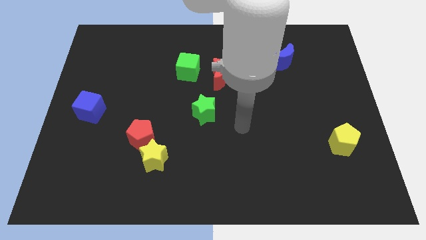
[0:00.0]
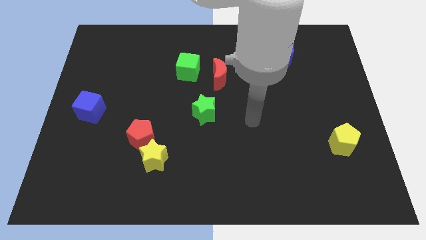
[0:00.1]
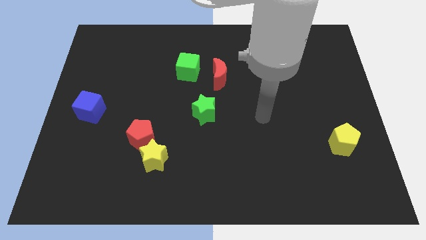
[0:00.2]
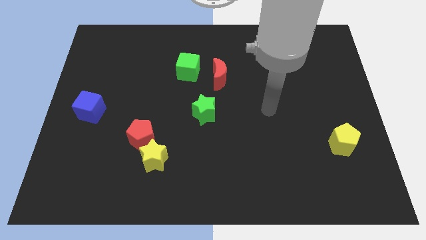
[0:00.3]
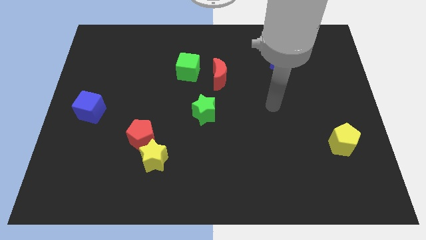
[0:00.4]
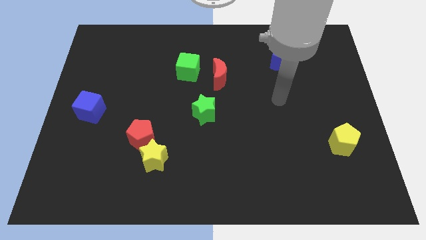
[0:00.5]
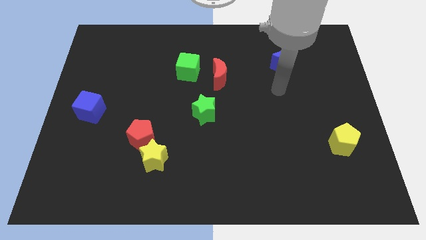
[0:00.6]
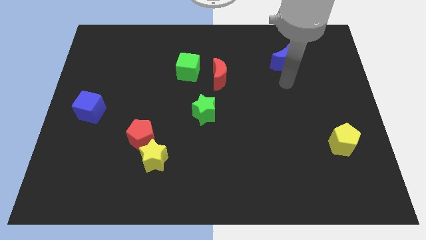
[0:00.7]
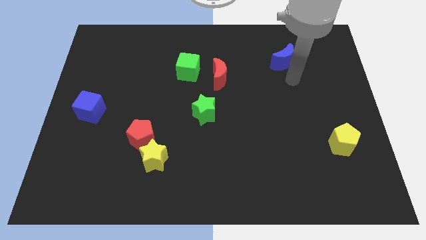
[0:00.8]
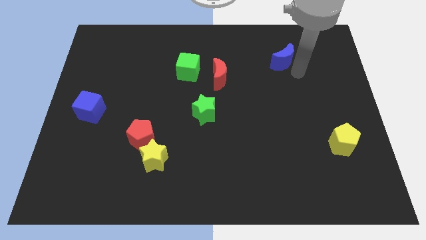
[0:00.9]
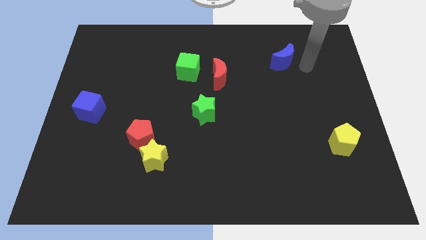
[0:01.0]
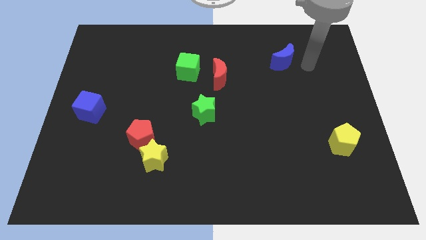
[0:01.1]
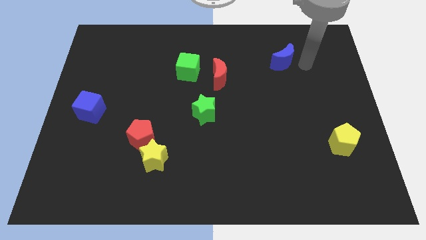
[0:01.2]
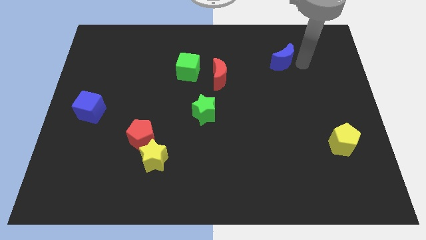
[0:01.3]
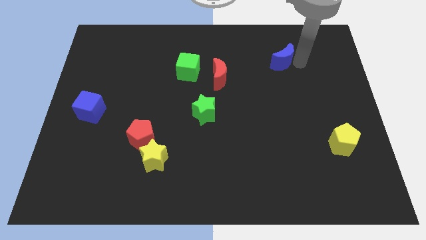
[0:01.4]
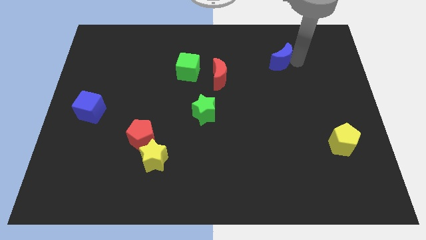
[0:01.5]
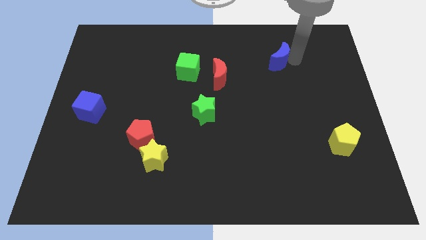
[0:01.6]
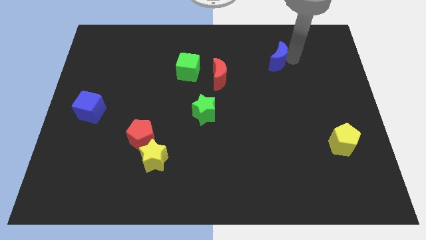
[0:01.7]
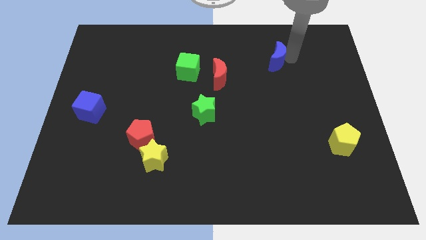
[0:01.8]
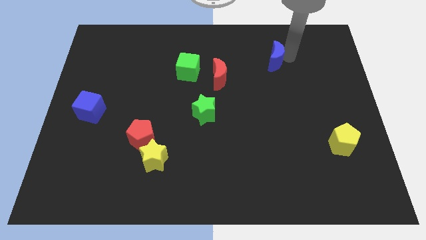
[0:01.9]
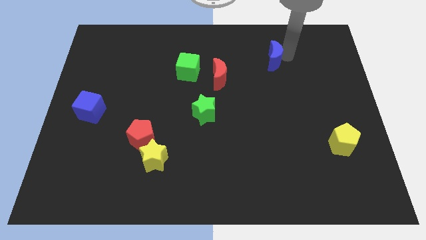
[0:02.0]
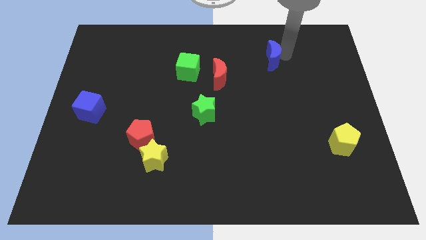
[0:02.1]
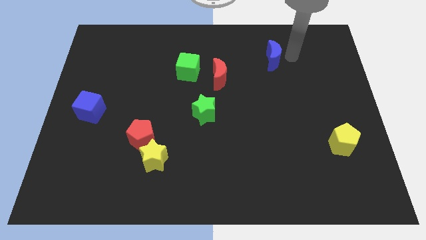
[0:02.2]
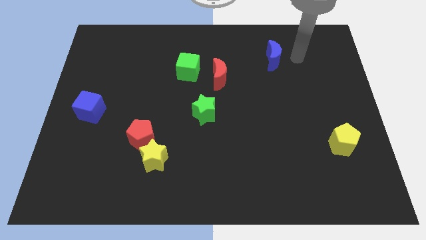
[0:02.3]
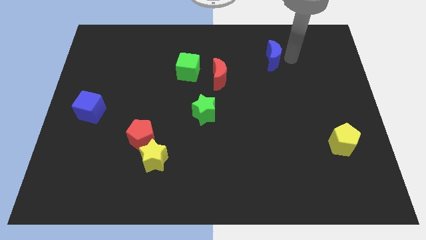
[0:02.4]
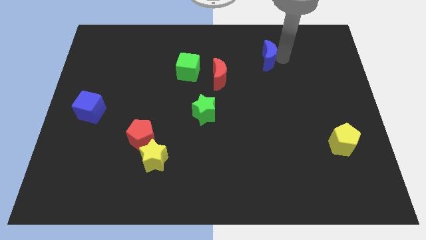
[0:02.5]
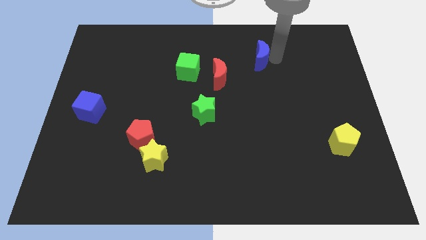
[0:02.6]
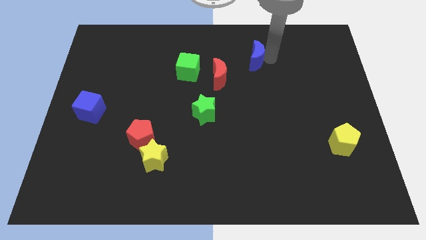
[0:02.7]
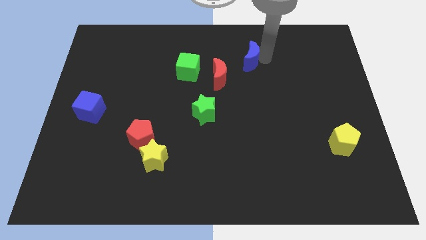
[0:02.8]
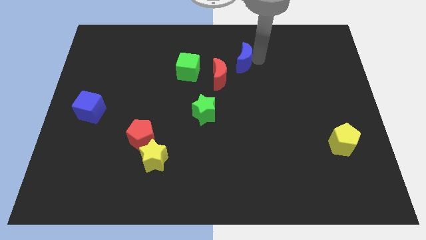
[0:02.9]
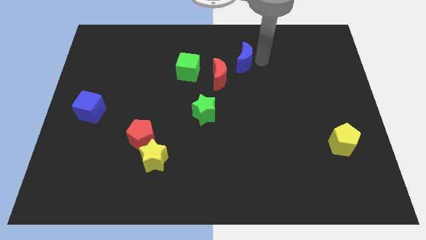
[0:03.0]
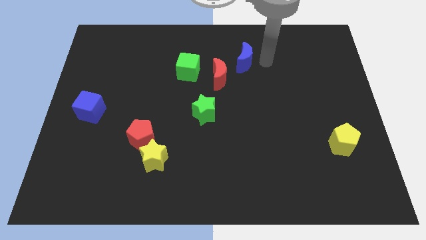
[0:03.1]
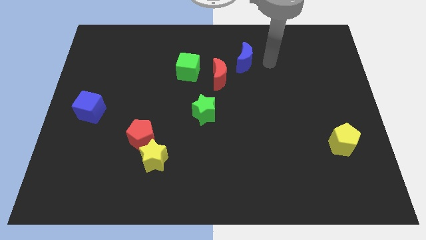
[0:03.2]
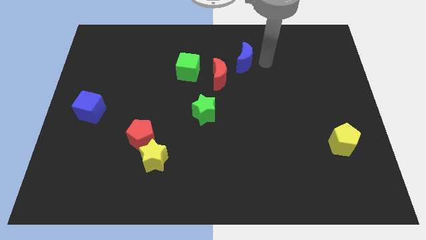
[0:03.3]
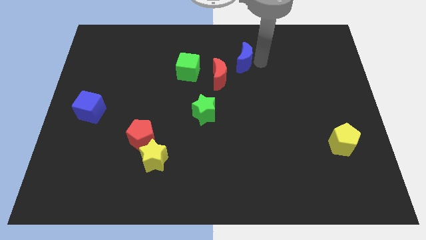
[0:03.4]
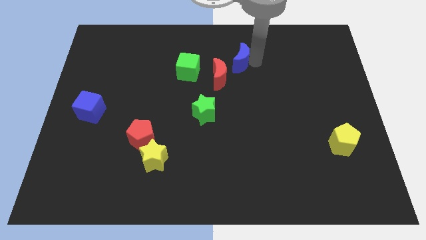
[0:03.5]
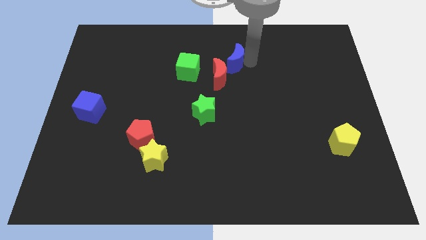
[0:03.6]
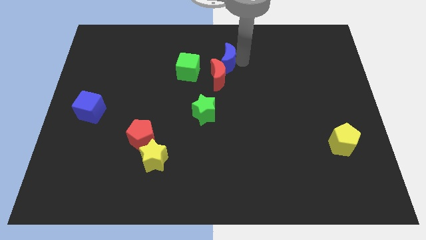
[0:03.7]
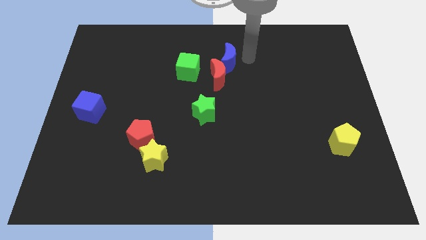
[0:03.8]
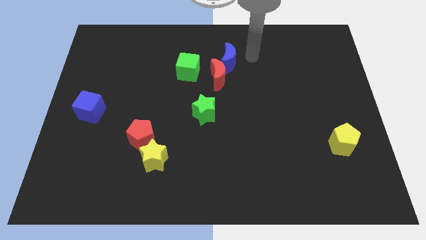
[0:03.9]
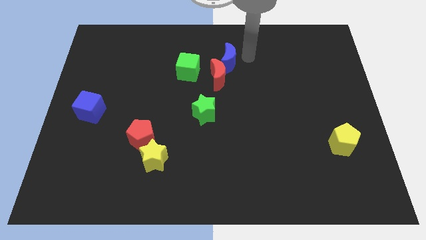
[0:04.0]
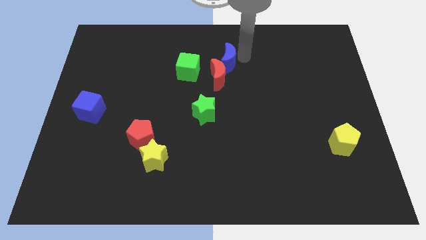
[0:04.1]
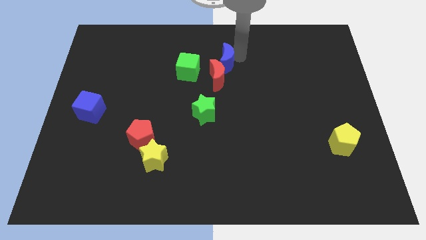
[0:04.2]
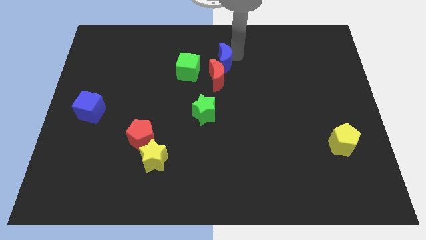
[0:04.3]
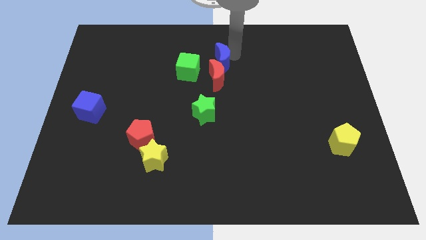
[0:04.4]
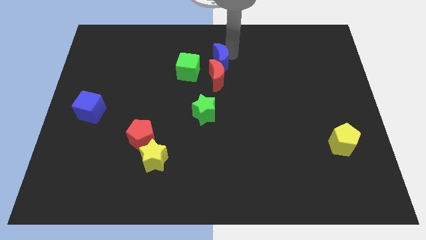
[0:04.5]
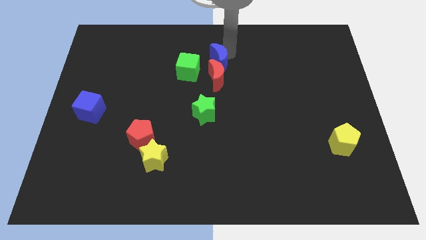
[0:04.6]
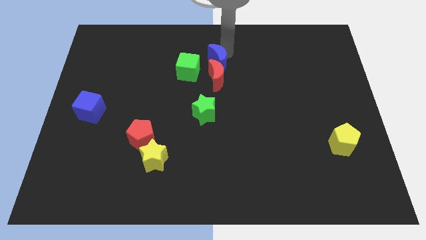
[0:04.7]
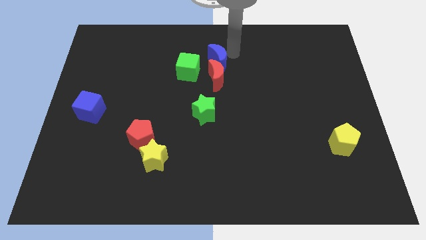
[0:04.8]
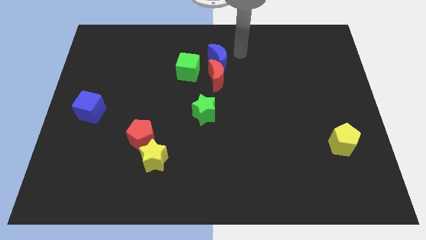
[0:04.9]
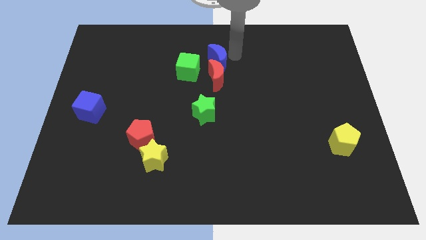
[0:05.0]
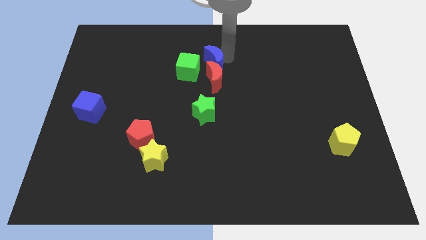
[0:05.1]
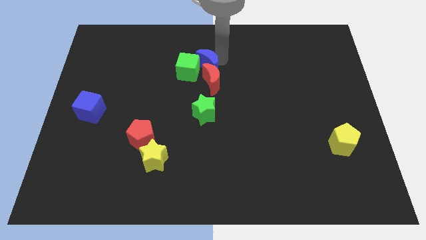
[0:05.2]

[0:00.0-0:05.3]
push the blue moon next to the green cube

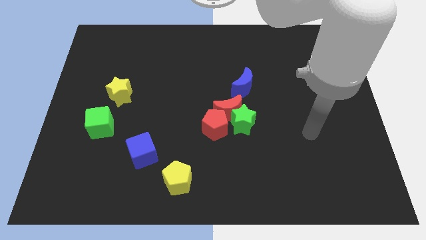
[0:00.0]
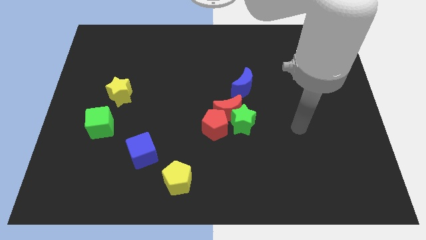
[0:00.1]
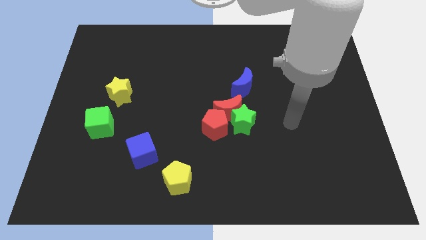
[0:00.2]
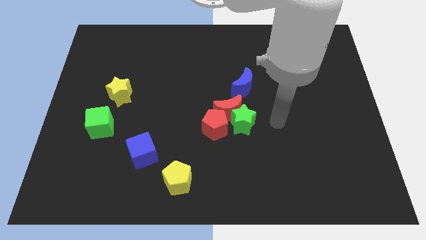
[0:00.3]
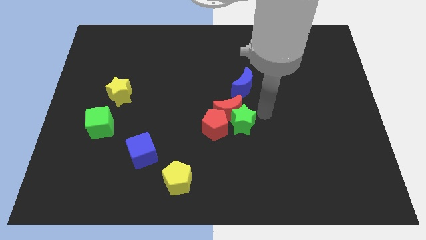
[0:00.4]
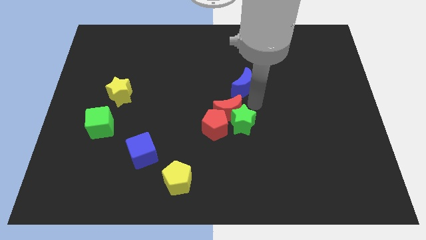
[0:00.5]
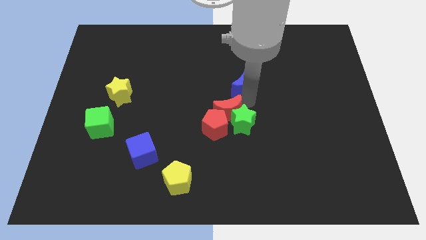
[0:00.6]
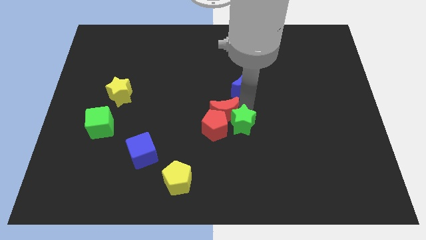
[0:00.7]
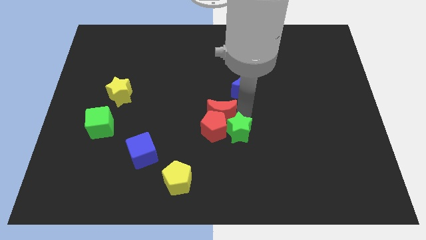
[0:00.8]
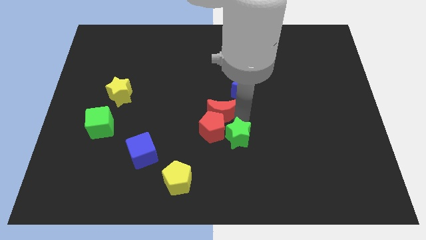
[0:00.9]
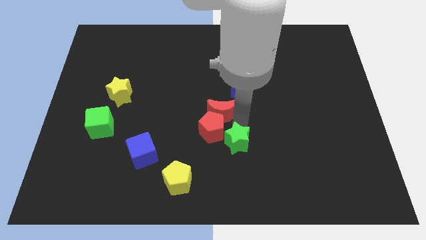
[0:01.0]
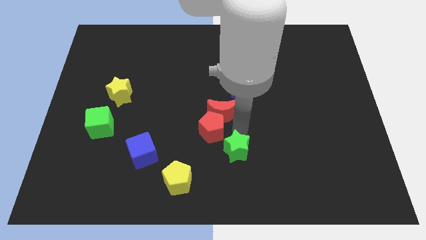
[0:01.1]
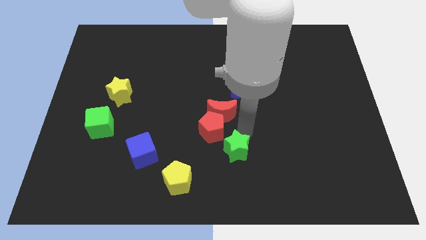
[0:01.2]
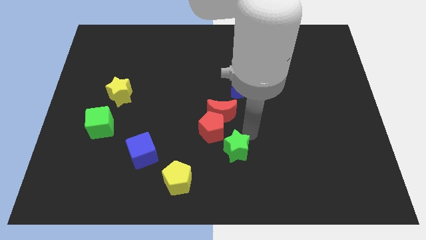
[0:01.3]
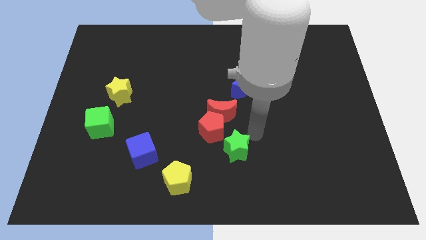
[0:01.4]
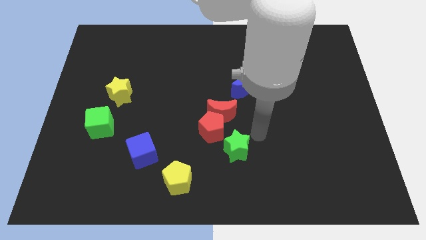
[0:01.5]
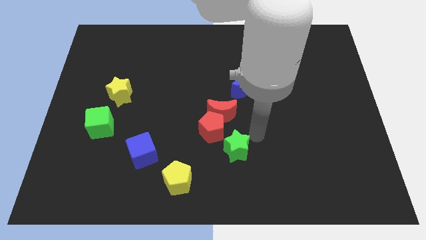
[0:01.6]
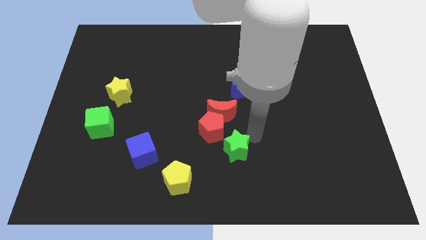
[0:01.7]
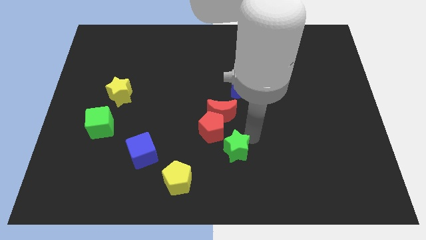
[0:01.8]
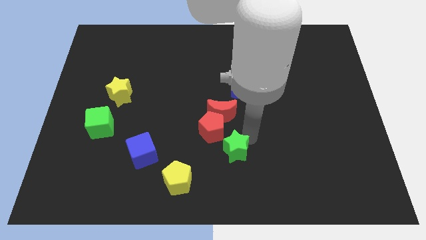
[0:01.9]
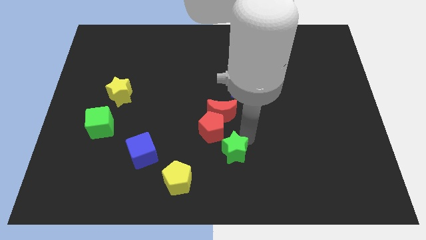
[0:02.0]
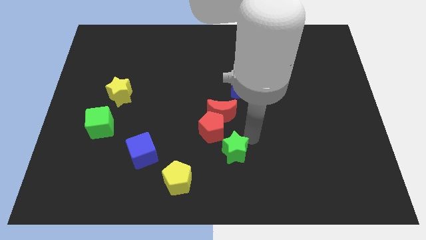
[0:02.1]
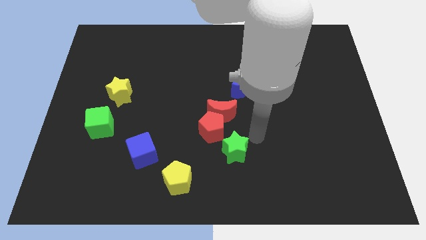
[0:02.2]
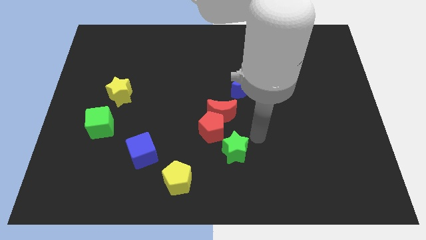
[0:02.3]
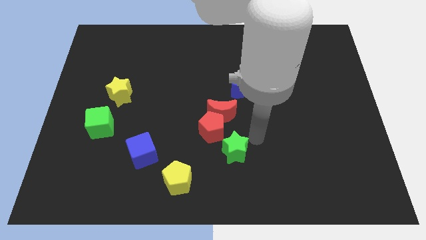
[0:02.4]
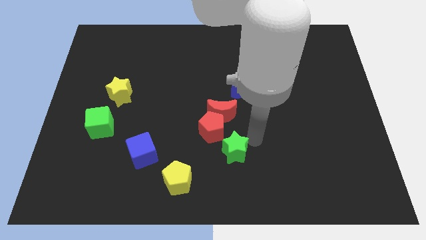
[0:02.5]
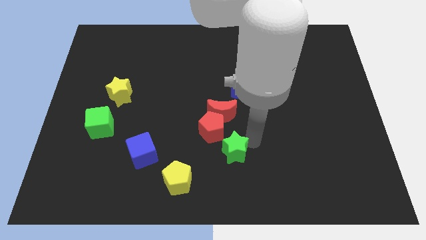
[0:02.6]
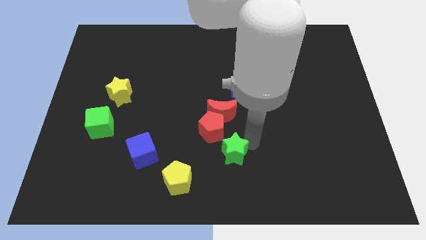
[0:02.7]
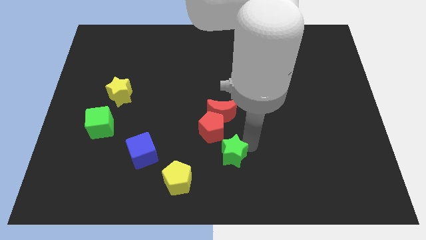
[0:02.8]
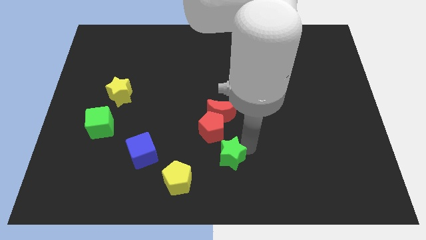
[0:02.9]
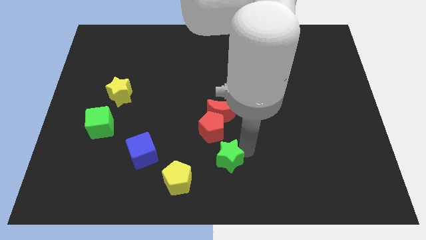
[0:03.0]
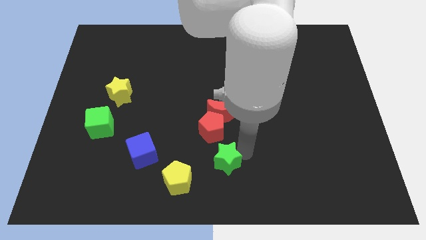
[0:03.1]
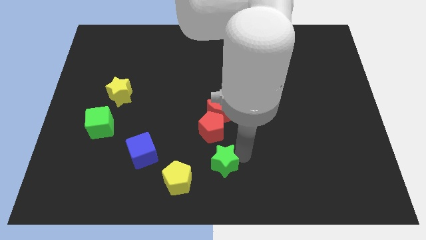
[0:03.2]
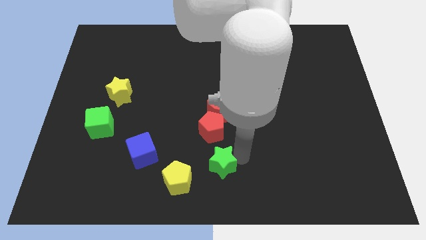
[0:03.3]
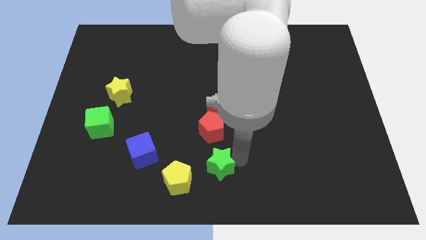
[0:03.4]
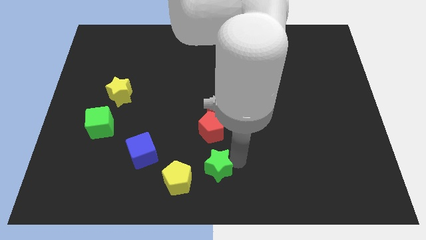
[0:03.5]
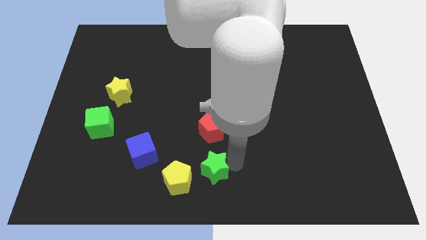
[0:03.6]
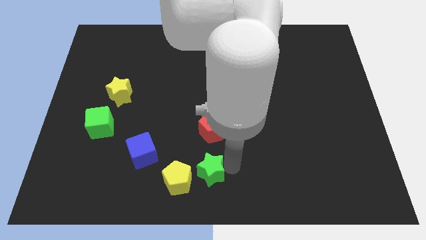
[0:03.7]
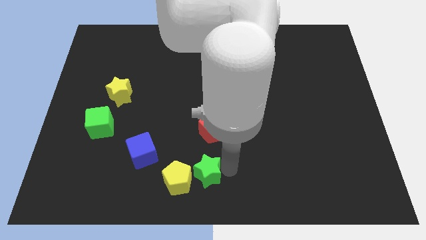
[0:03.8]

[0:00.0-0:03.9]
push the green star towards the yellow pentagon
